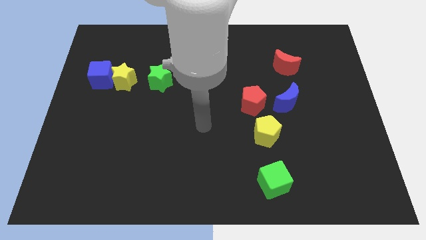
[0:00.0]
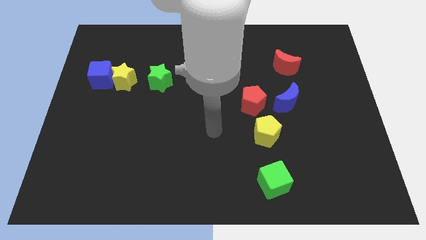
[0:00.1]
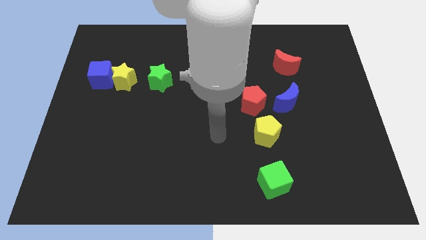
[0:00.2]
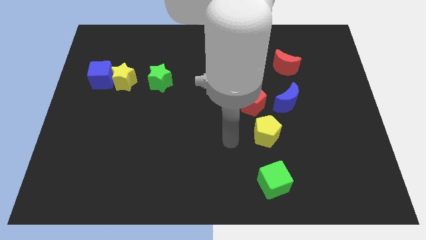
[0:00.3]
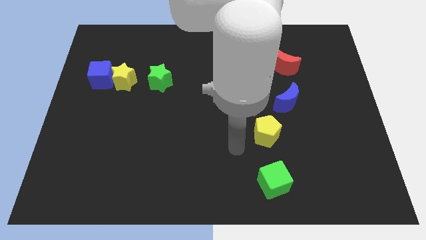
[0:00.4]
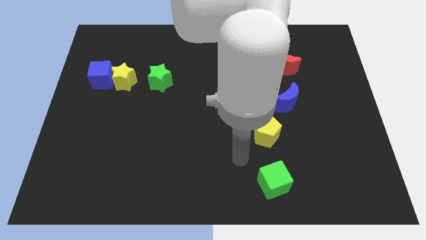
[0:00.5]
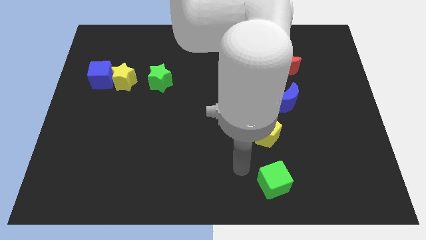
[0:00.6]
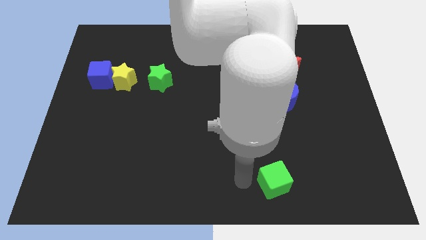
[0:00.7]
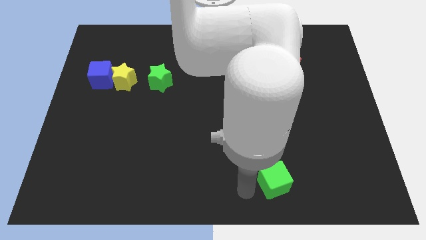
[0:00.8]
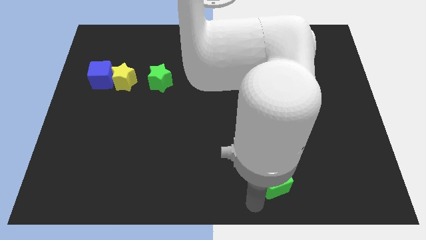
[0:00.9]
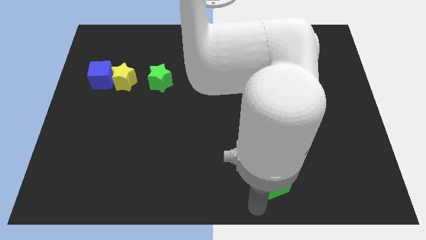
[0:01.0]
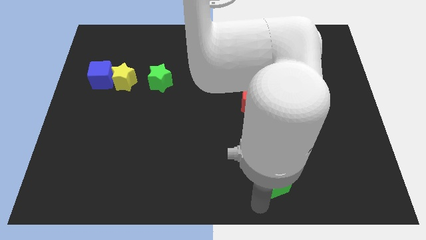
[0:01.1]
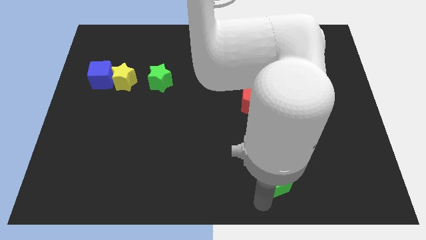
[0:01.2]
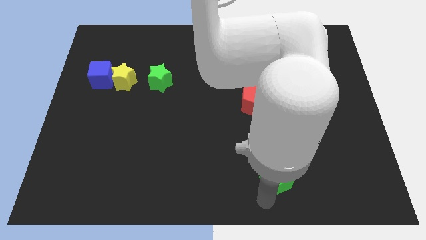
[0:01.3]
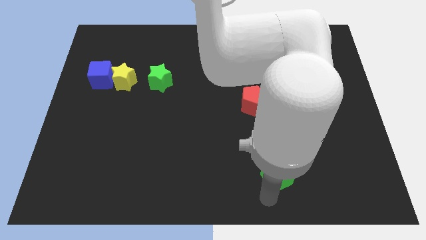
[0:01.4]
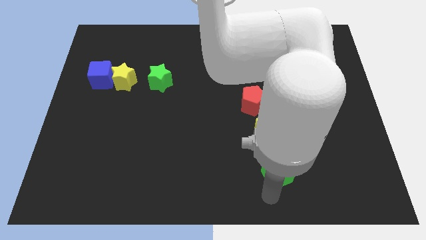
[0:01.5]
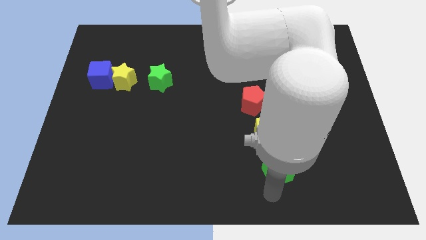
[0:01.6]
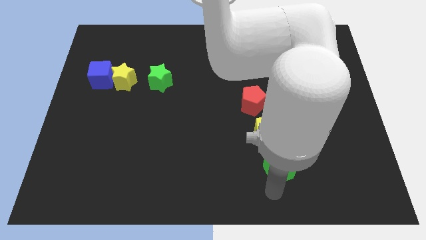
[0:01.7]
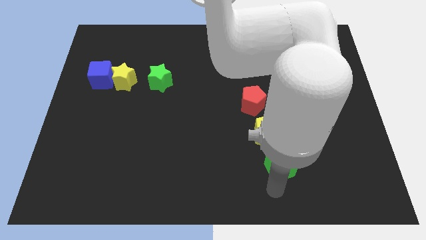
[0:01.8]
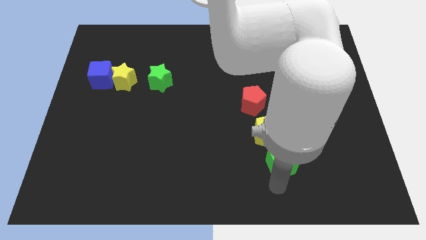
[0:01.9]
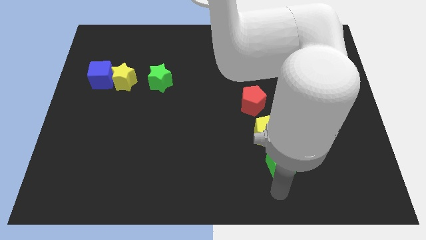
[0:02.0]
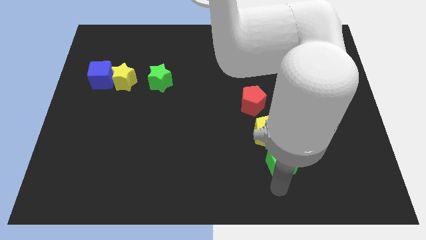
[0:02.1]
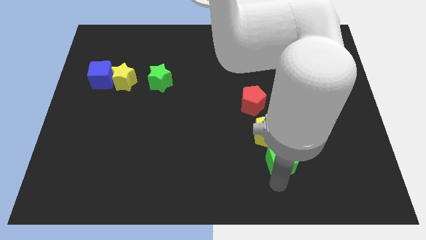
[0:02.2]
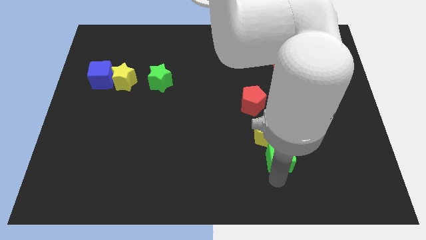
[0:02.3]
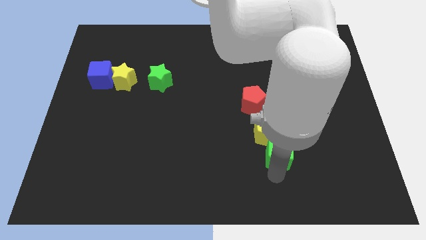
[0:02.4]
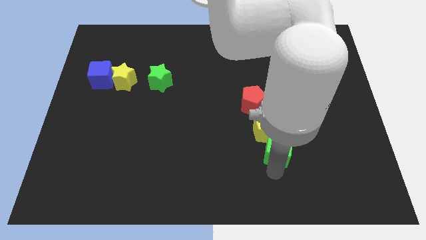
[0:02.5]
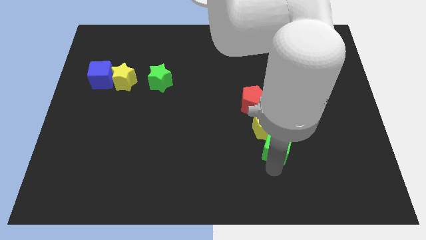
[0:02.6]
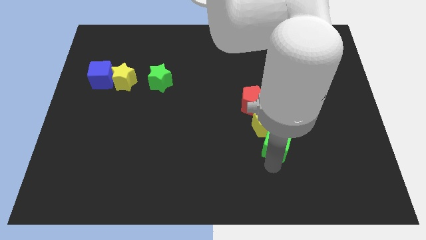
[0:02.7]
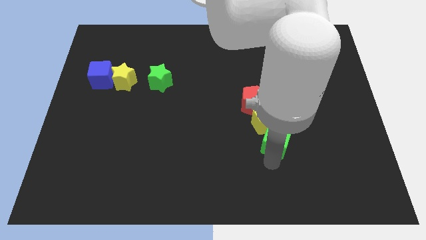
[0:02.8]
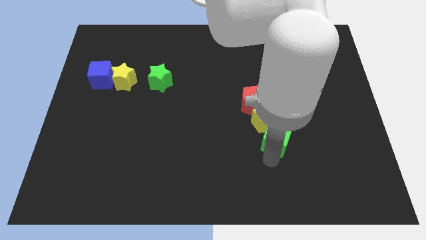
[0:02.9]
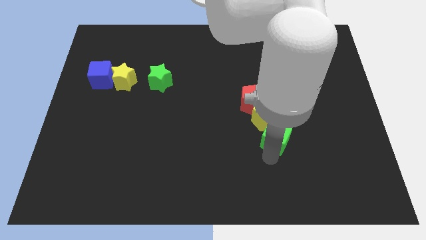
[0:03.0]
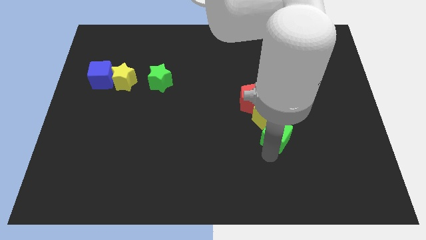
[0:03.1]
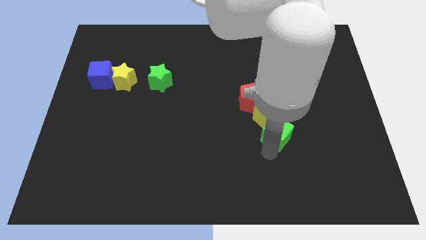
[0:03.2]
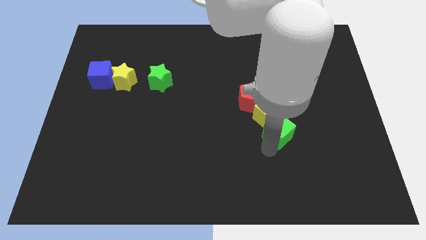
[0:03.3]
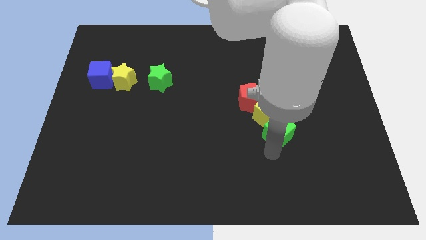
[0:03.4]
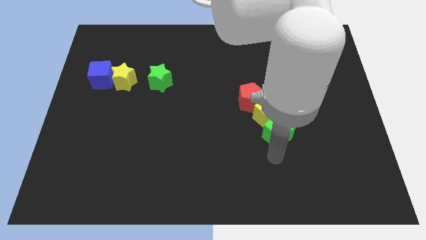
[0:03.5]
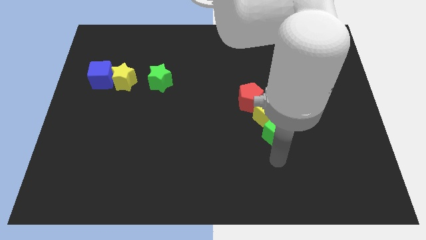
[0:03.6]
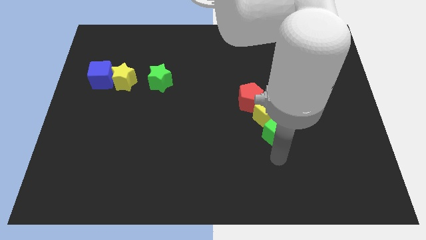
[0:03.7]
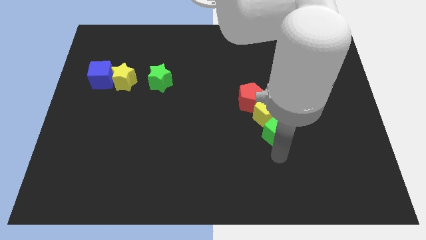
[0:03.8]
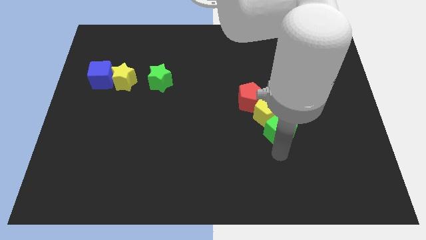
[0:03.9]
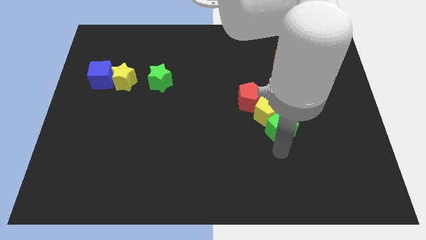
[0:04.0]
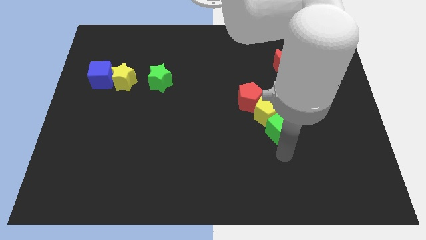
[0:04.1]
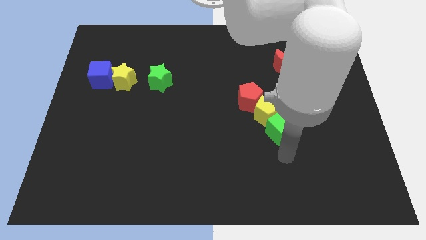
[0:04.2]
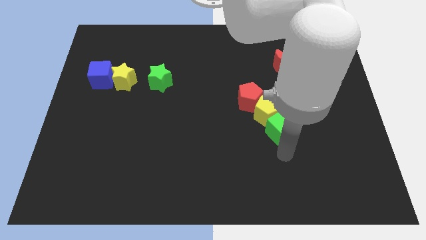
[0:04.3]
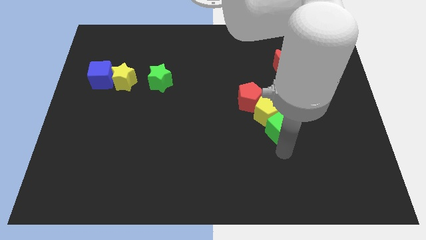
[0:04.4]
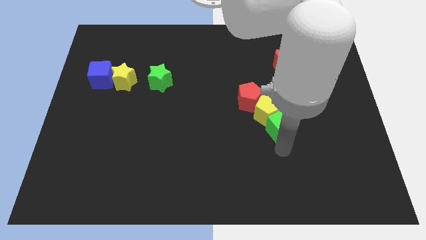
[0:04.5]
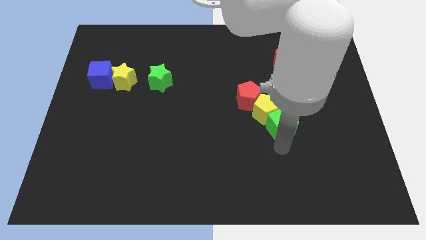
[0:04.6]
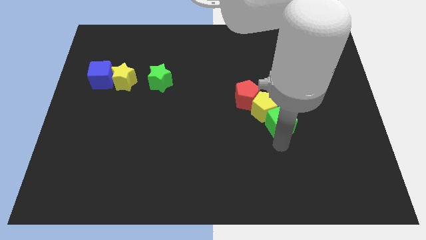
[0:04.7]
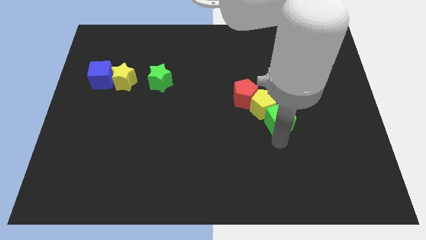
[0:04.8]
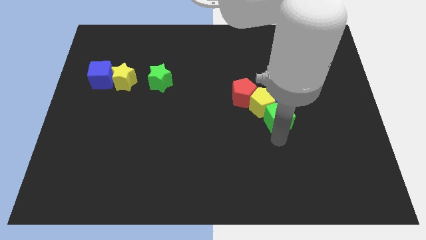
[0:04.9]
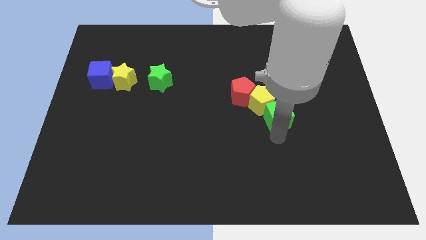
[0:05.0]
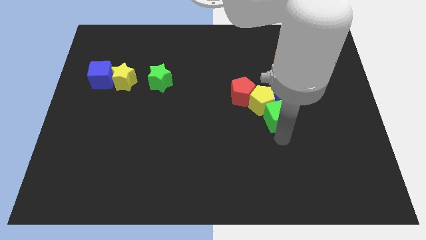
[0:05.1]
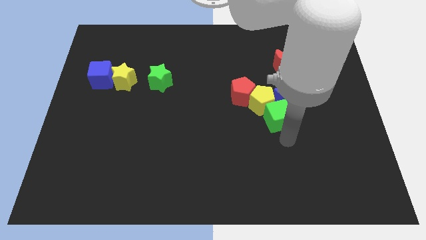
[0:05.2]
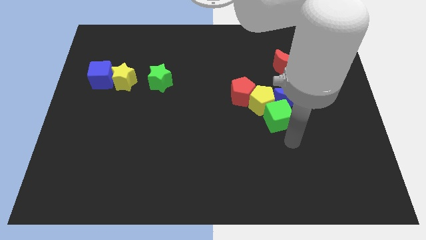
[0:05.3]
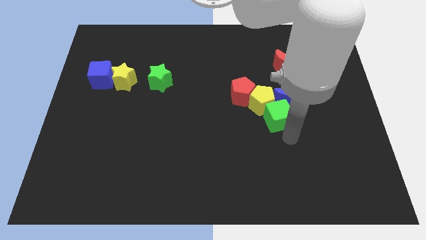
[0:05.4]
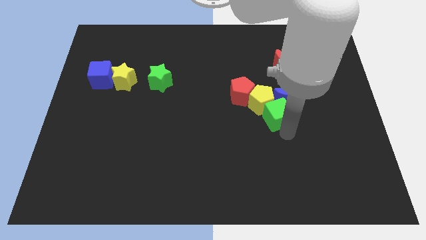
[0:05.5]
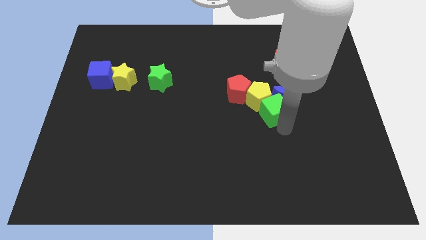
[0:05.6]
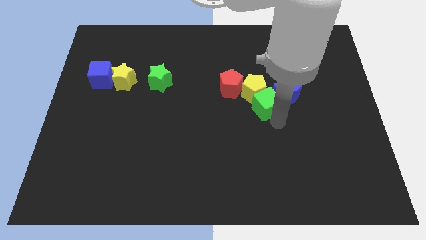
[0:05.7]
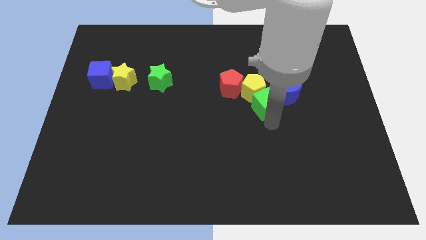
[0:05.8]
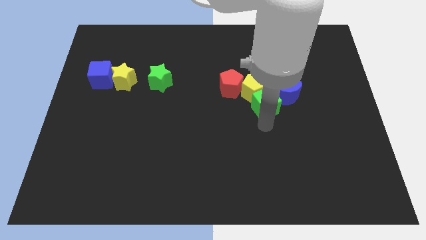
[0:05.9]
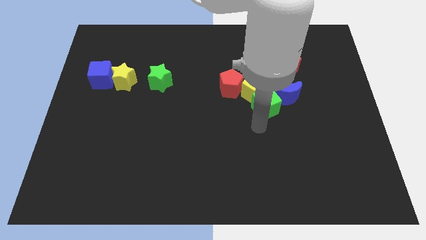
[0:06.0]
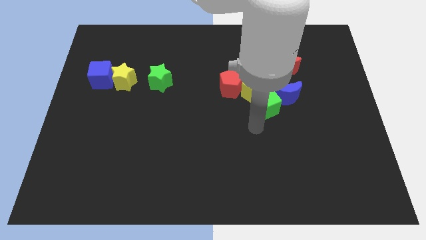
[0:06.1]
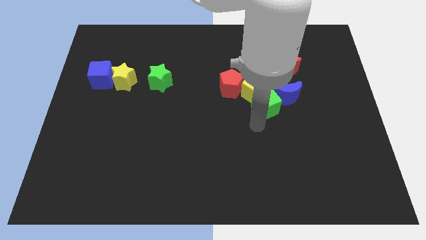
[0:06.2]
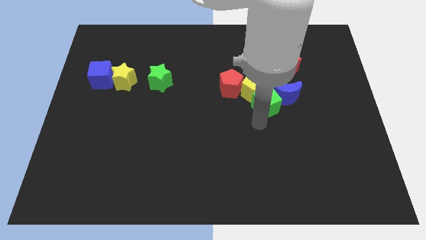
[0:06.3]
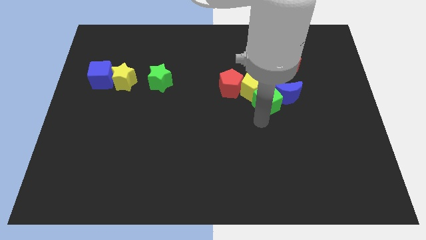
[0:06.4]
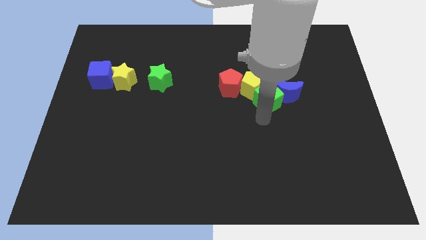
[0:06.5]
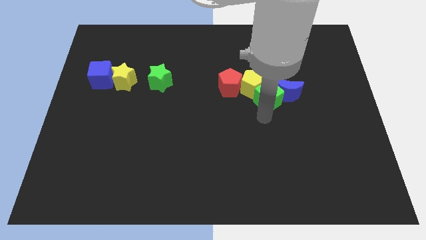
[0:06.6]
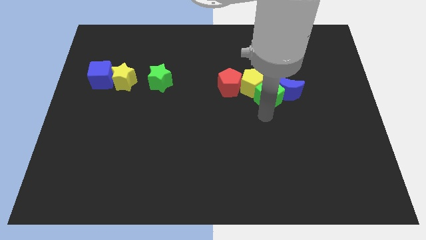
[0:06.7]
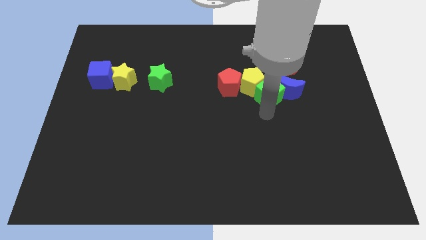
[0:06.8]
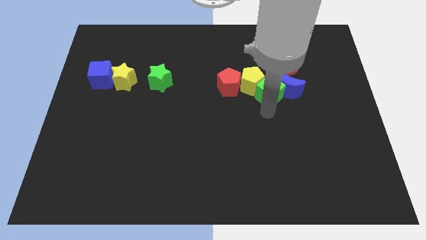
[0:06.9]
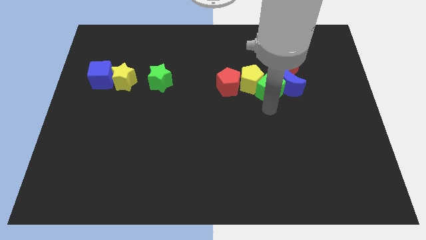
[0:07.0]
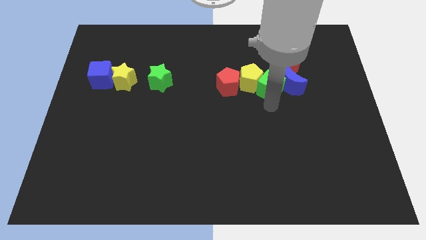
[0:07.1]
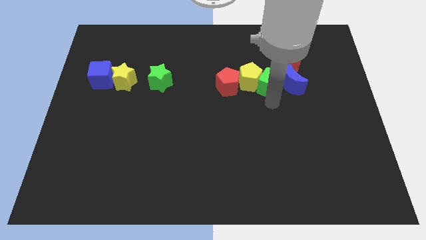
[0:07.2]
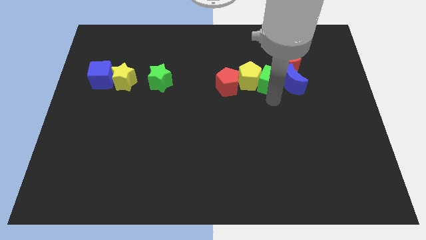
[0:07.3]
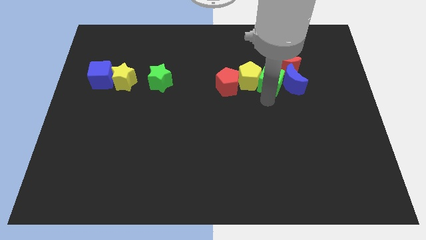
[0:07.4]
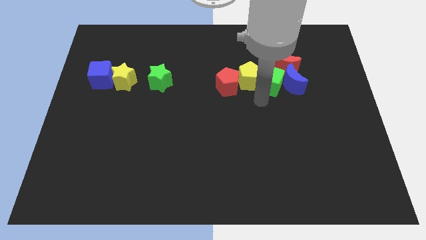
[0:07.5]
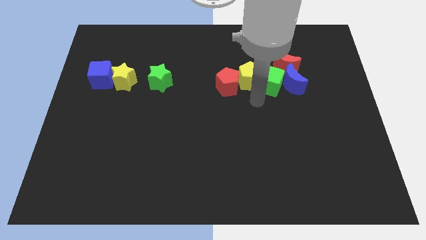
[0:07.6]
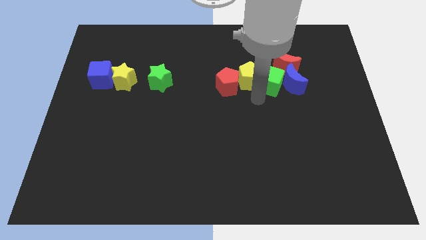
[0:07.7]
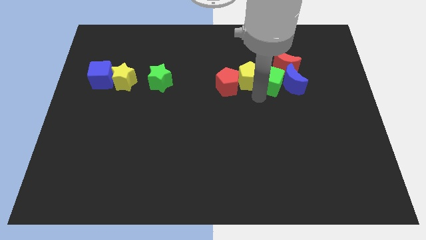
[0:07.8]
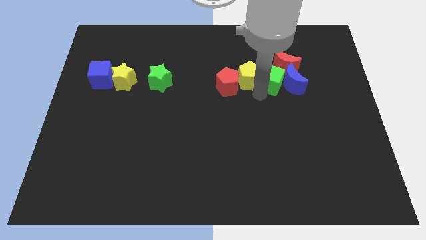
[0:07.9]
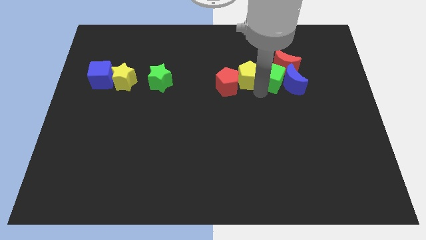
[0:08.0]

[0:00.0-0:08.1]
push the green cube next to the red moon
